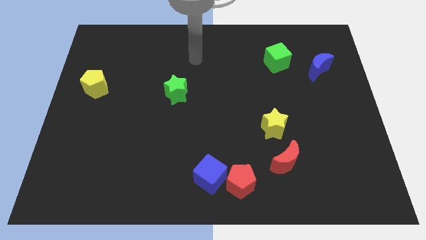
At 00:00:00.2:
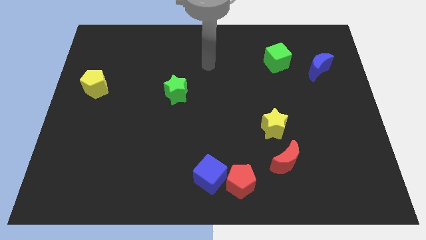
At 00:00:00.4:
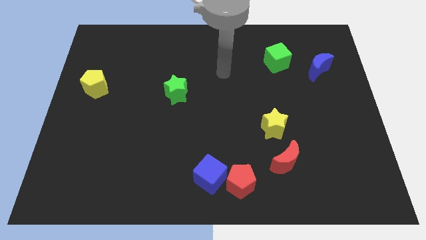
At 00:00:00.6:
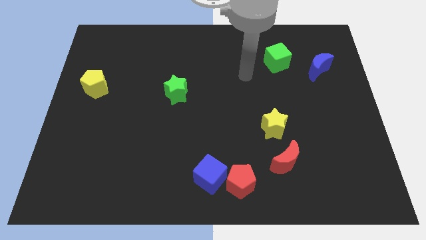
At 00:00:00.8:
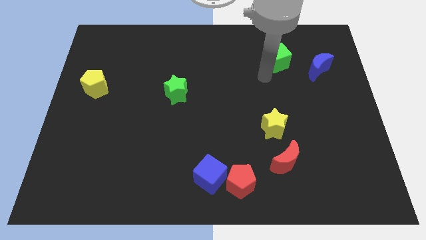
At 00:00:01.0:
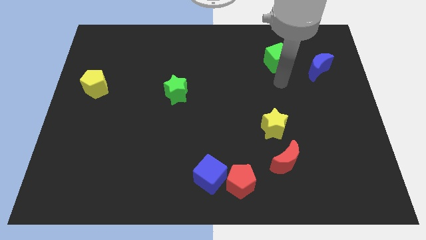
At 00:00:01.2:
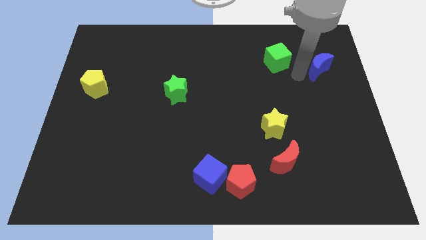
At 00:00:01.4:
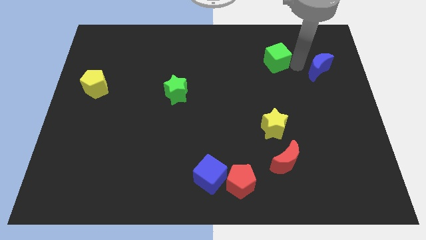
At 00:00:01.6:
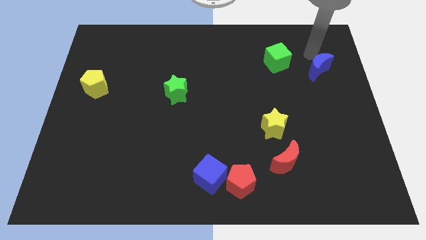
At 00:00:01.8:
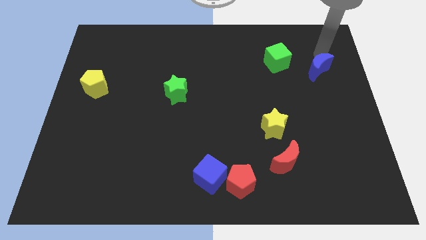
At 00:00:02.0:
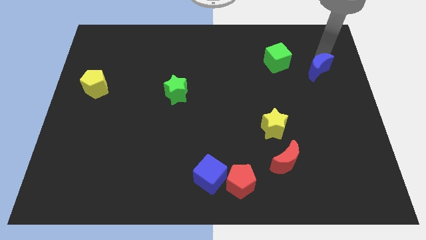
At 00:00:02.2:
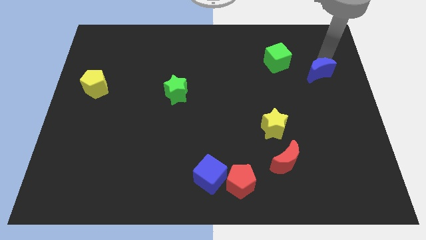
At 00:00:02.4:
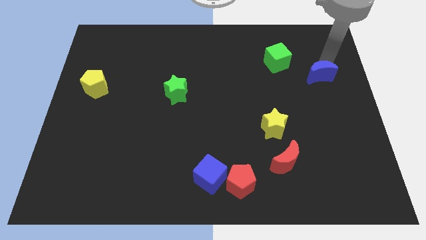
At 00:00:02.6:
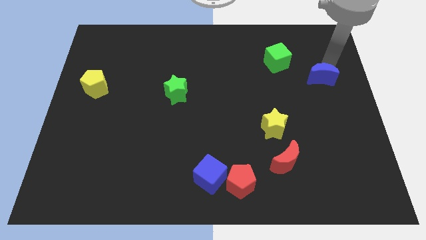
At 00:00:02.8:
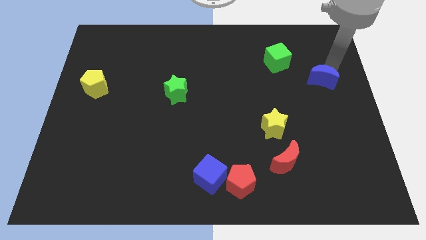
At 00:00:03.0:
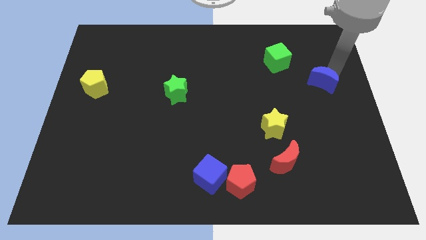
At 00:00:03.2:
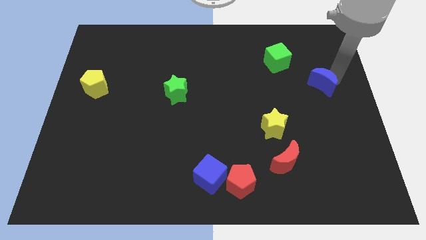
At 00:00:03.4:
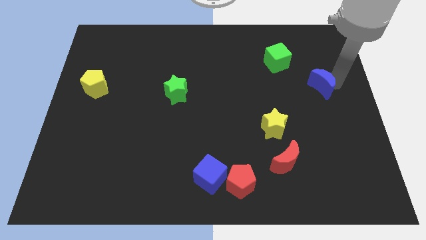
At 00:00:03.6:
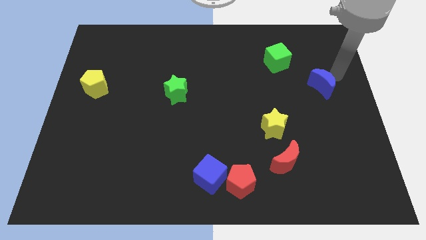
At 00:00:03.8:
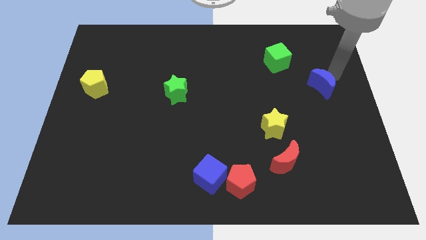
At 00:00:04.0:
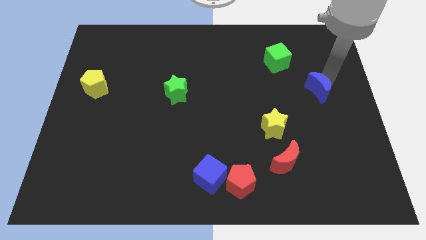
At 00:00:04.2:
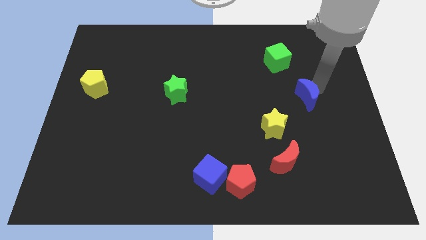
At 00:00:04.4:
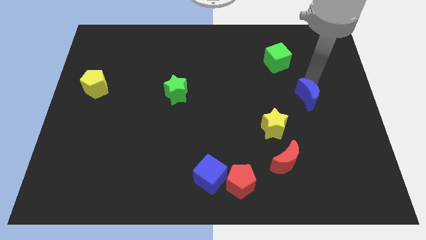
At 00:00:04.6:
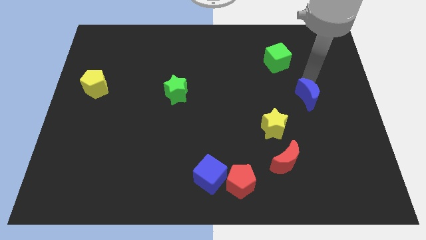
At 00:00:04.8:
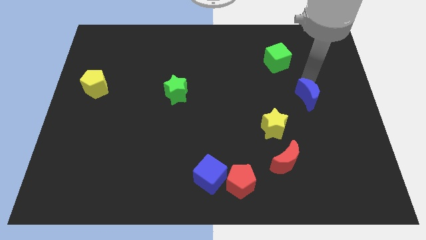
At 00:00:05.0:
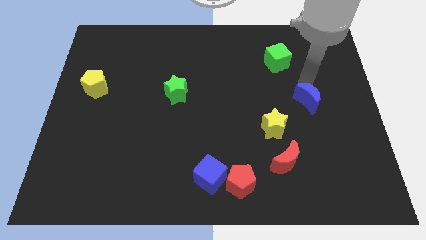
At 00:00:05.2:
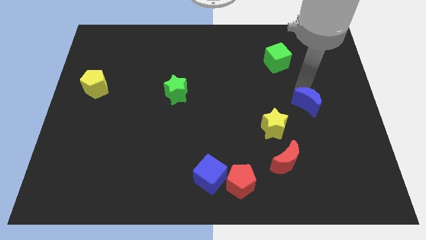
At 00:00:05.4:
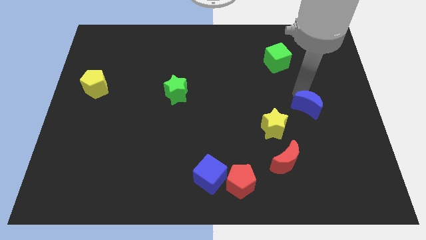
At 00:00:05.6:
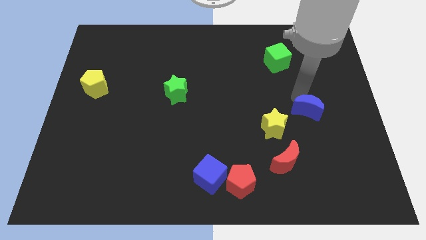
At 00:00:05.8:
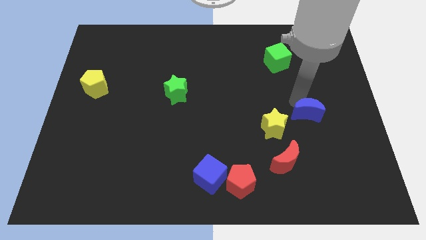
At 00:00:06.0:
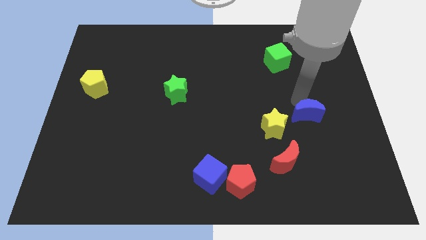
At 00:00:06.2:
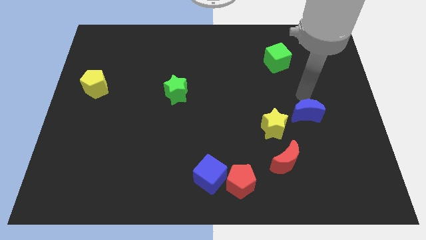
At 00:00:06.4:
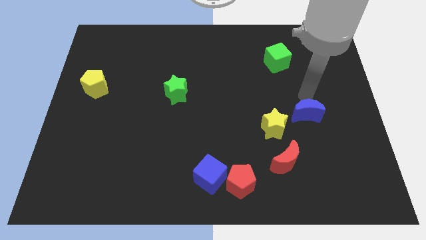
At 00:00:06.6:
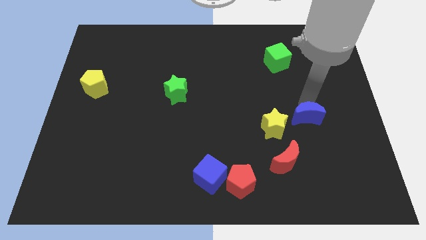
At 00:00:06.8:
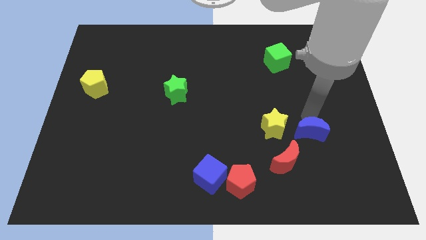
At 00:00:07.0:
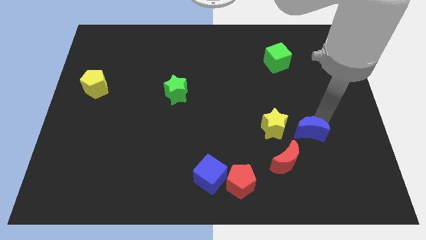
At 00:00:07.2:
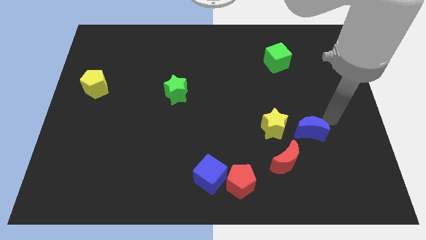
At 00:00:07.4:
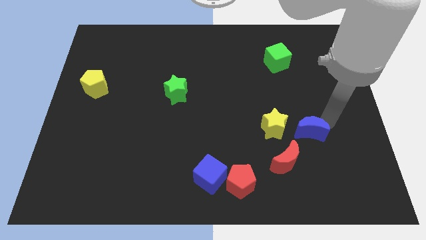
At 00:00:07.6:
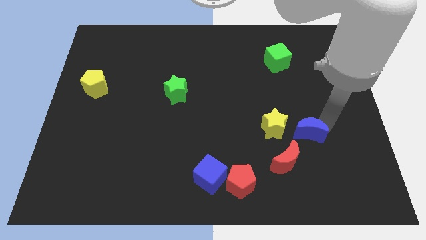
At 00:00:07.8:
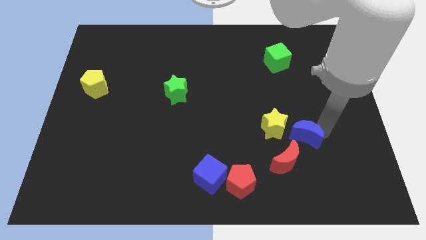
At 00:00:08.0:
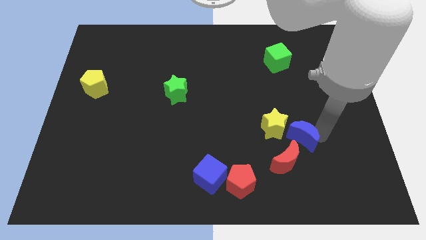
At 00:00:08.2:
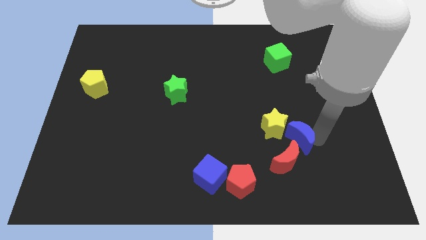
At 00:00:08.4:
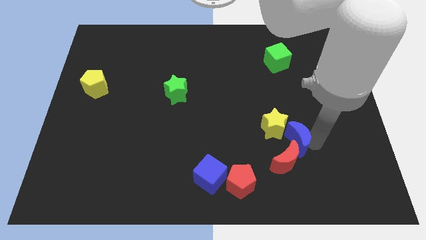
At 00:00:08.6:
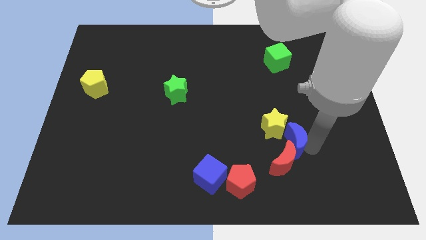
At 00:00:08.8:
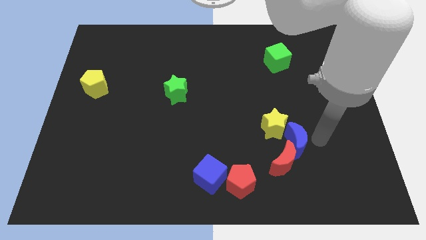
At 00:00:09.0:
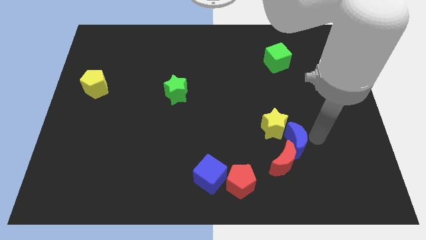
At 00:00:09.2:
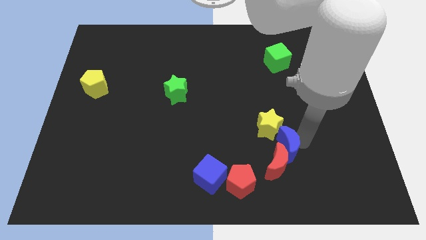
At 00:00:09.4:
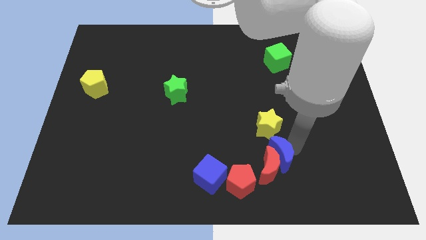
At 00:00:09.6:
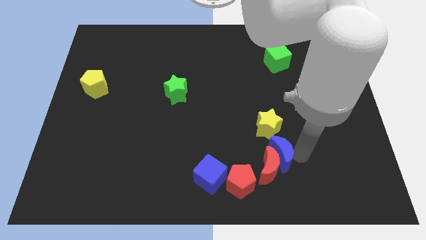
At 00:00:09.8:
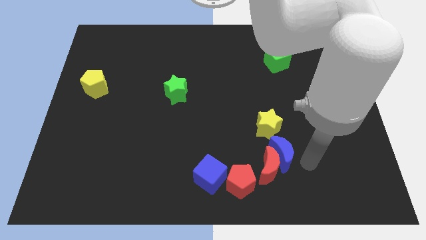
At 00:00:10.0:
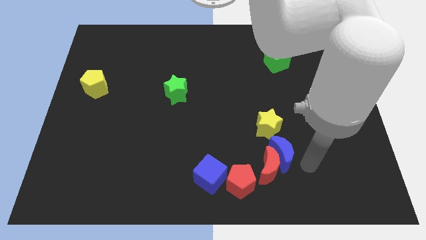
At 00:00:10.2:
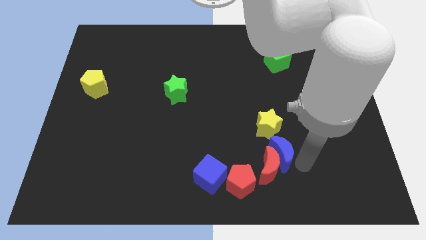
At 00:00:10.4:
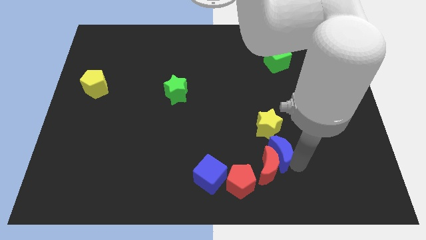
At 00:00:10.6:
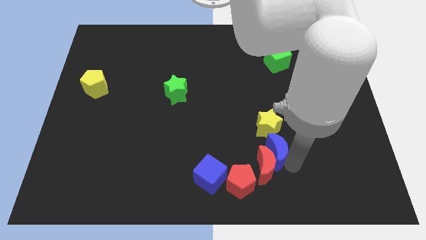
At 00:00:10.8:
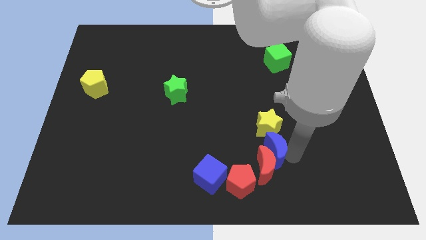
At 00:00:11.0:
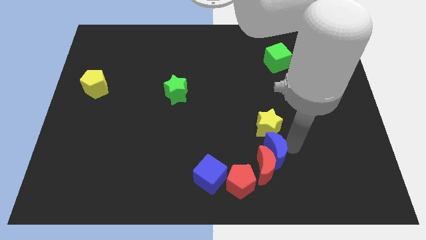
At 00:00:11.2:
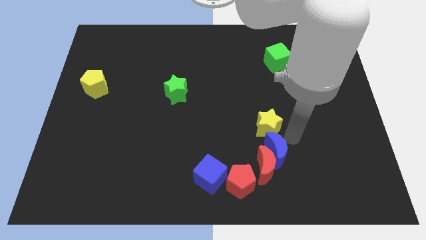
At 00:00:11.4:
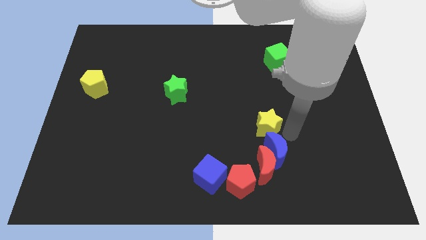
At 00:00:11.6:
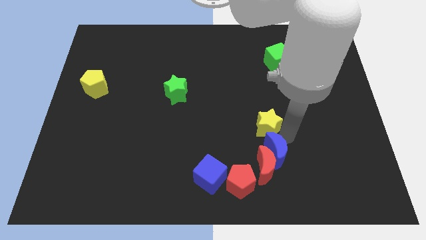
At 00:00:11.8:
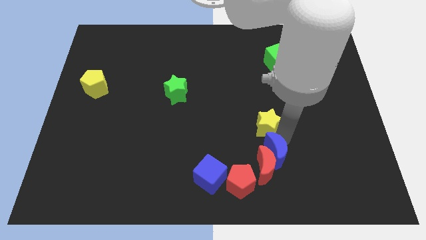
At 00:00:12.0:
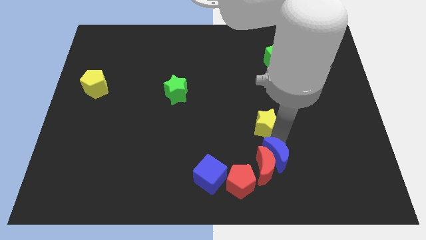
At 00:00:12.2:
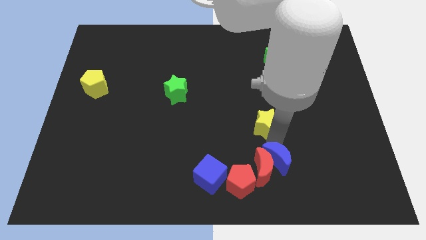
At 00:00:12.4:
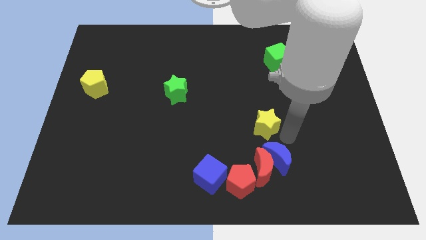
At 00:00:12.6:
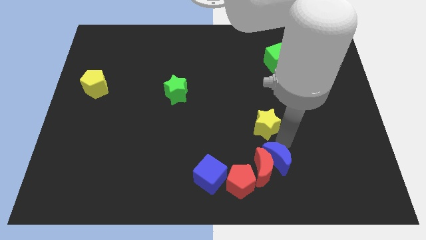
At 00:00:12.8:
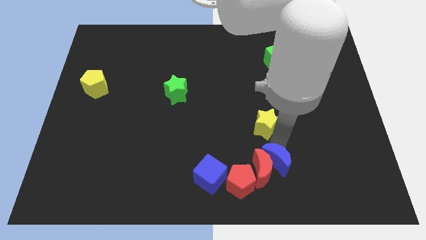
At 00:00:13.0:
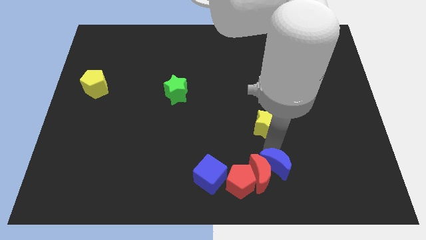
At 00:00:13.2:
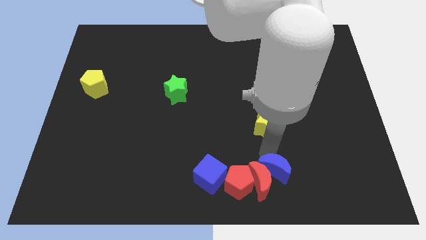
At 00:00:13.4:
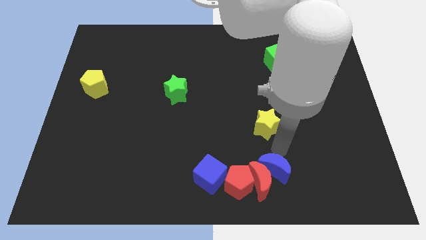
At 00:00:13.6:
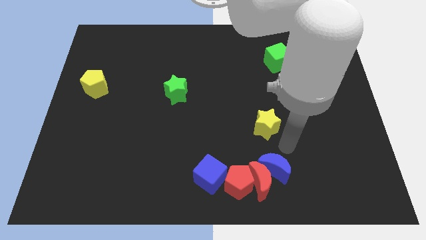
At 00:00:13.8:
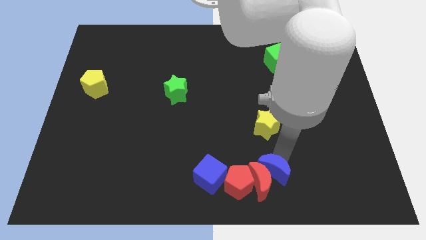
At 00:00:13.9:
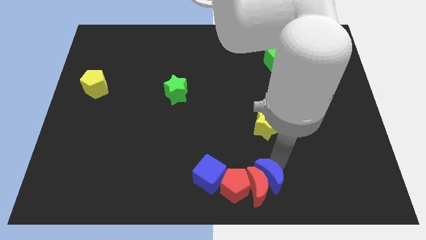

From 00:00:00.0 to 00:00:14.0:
move the blue moon to the bottom side
